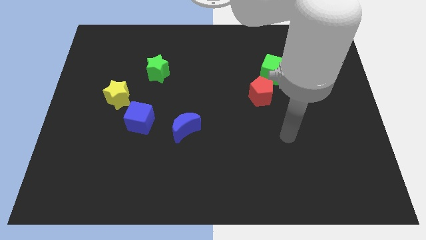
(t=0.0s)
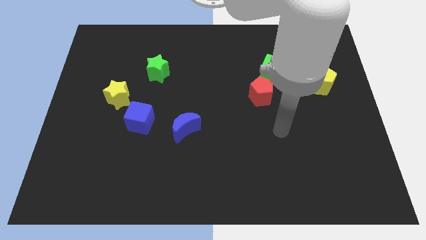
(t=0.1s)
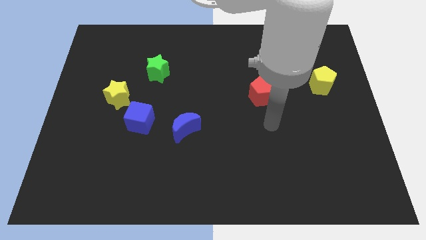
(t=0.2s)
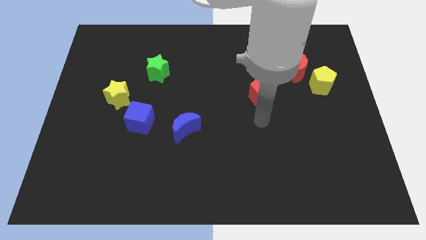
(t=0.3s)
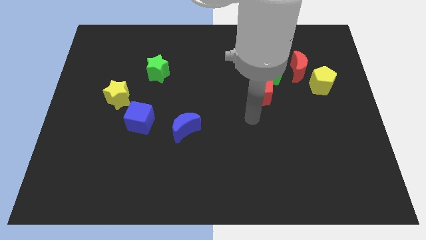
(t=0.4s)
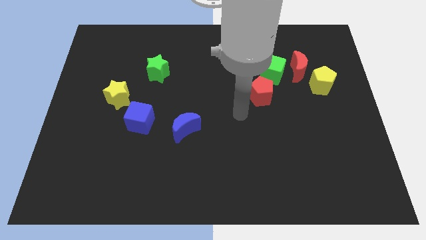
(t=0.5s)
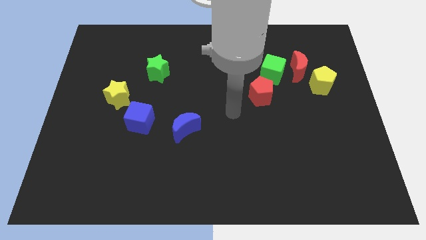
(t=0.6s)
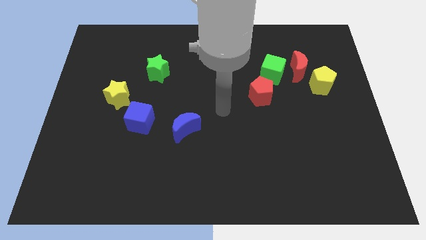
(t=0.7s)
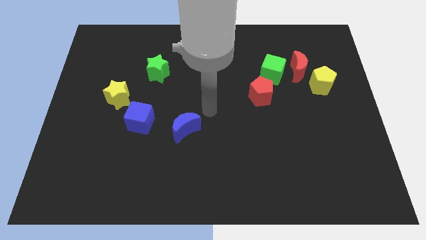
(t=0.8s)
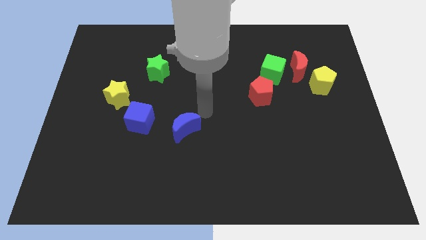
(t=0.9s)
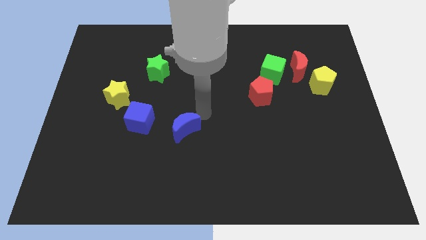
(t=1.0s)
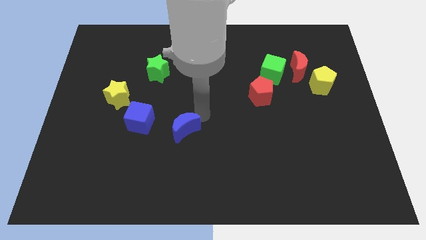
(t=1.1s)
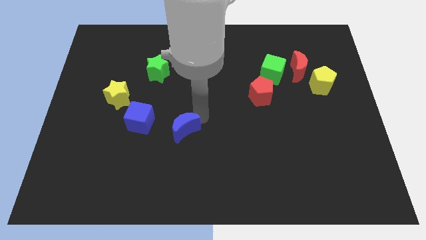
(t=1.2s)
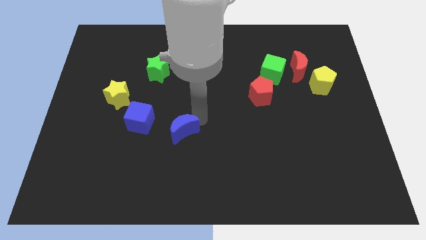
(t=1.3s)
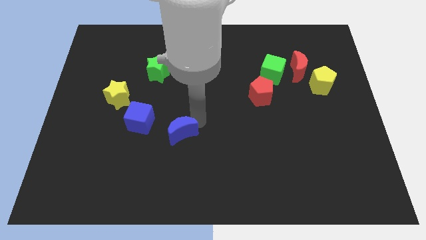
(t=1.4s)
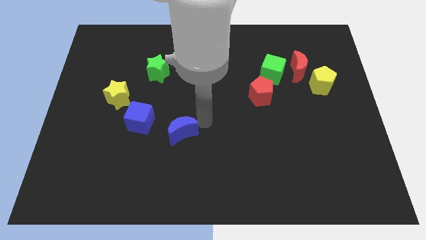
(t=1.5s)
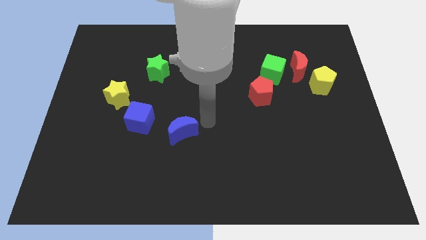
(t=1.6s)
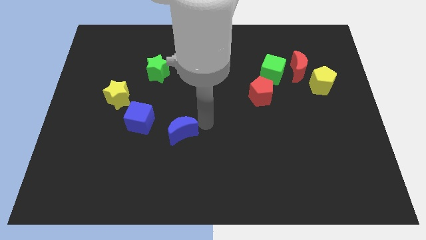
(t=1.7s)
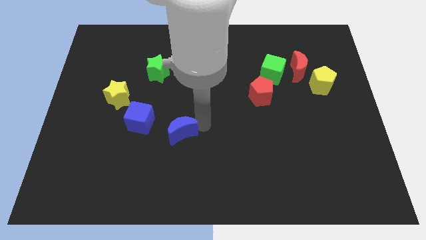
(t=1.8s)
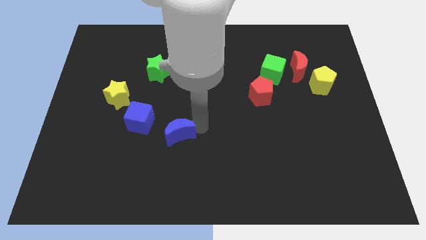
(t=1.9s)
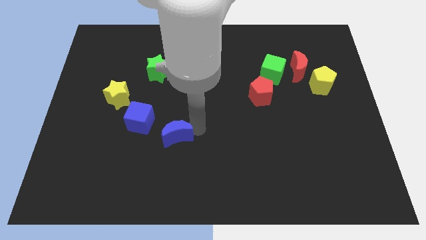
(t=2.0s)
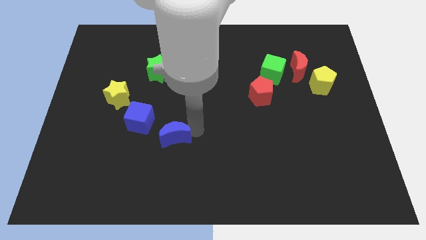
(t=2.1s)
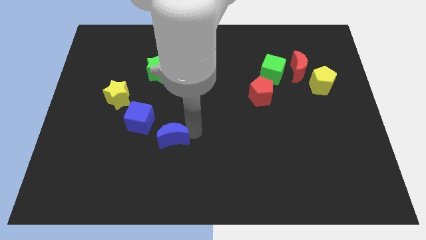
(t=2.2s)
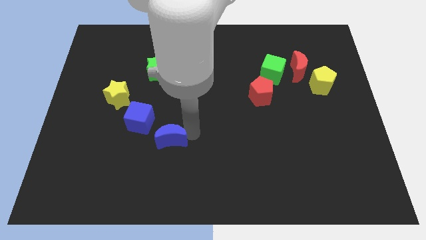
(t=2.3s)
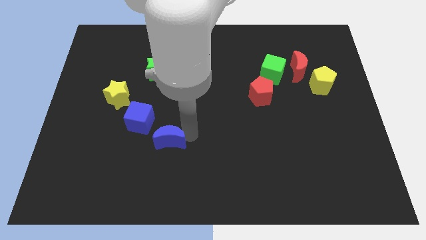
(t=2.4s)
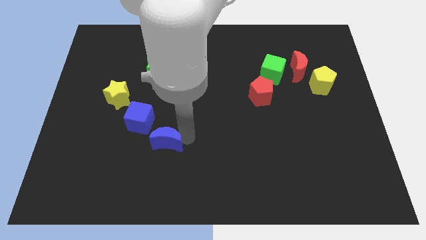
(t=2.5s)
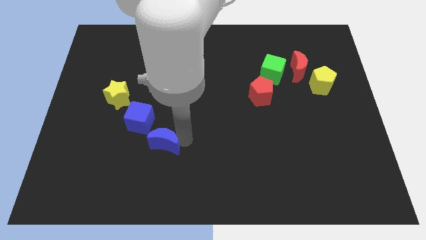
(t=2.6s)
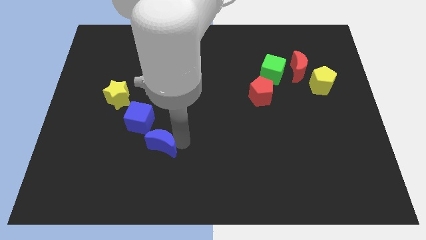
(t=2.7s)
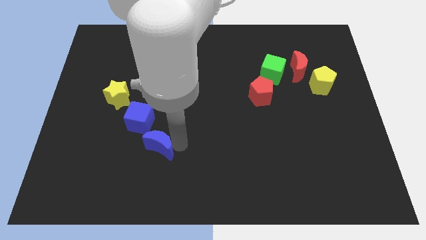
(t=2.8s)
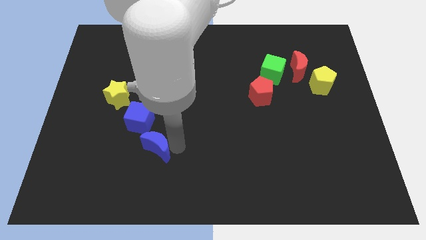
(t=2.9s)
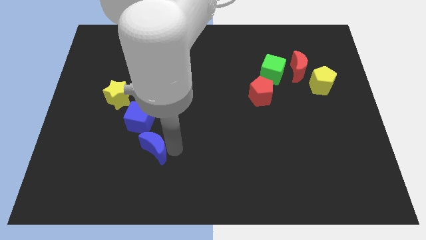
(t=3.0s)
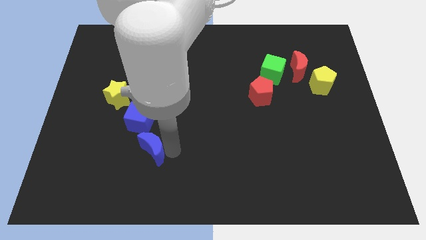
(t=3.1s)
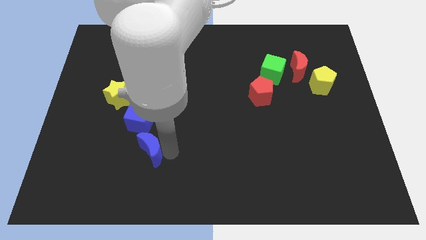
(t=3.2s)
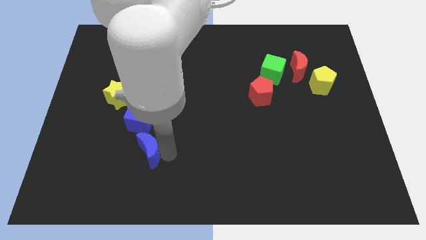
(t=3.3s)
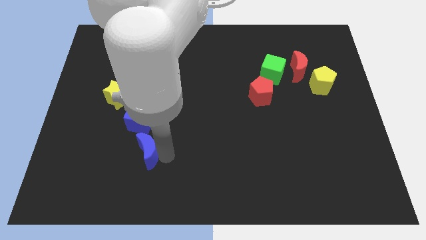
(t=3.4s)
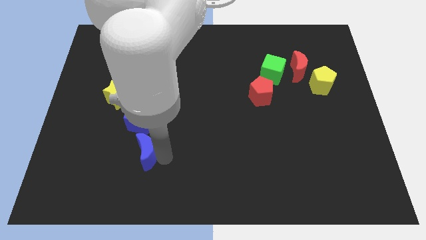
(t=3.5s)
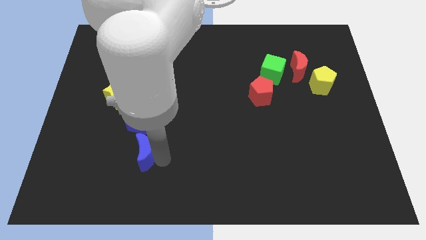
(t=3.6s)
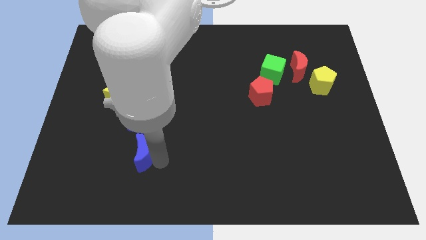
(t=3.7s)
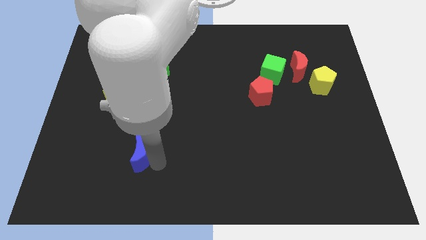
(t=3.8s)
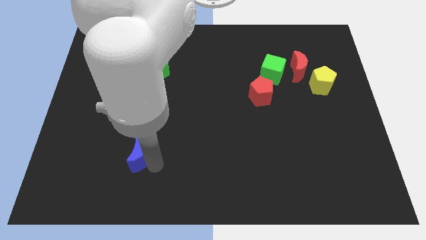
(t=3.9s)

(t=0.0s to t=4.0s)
slightly push the blue moon left

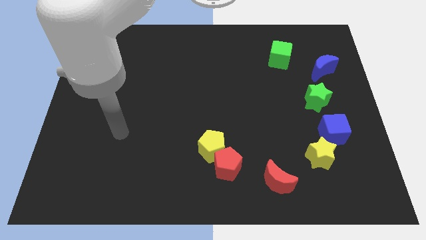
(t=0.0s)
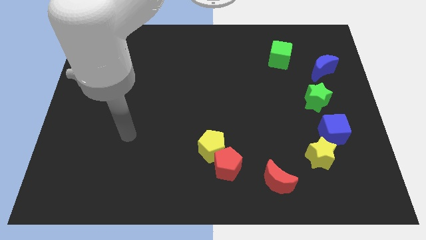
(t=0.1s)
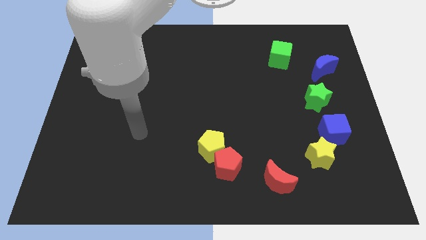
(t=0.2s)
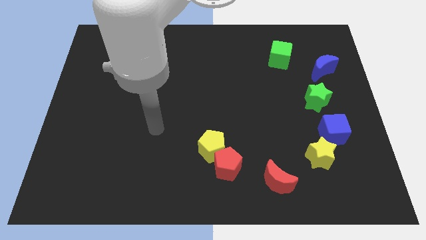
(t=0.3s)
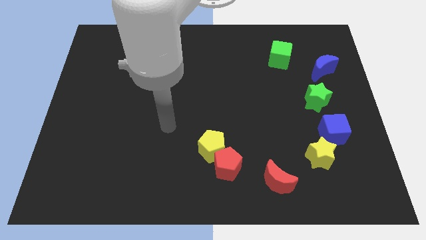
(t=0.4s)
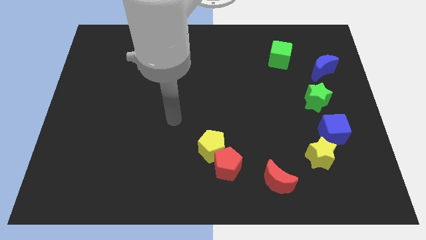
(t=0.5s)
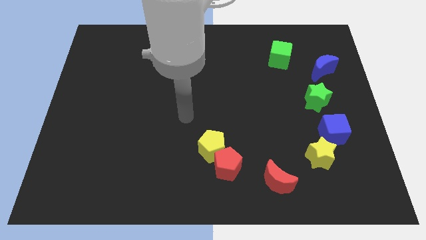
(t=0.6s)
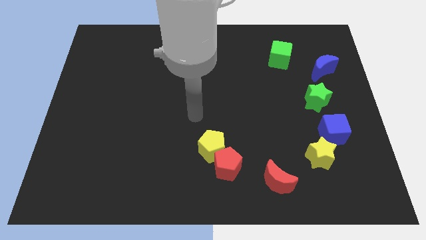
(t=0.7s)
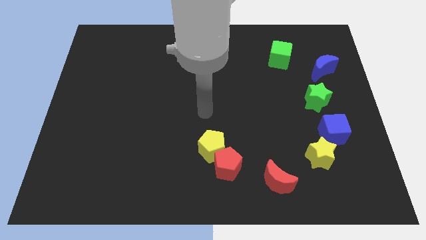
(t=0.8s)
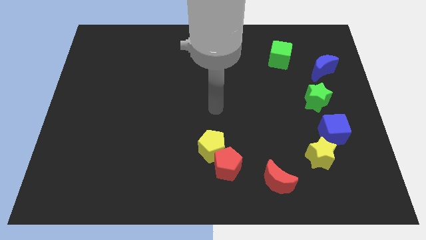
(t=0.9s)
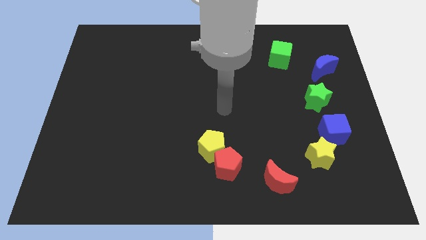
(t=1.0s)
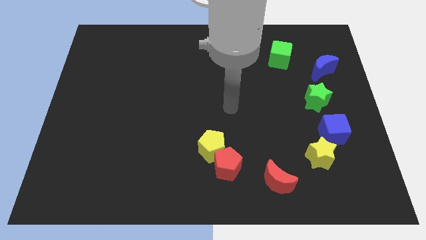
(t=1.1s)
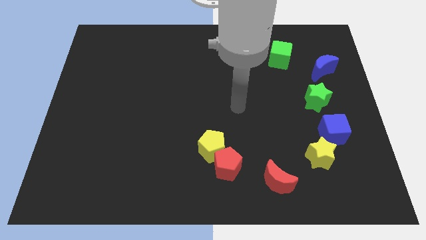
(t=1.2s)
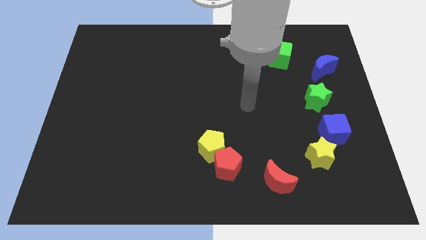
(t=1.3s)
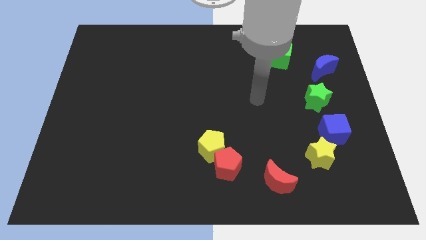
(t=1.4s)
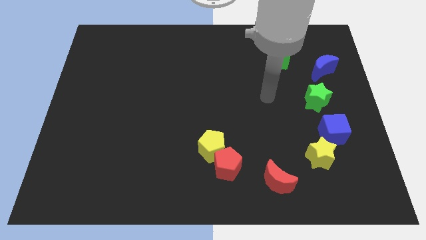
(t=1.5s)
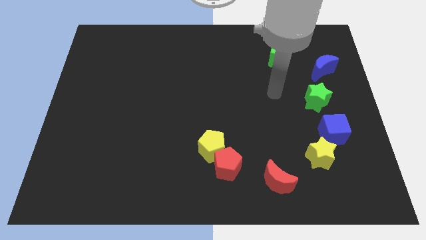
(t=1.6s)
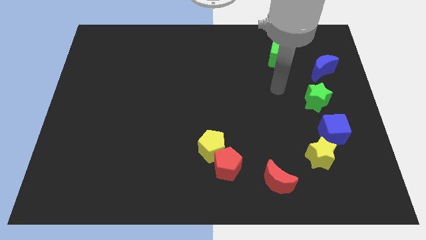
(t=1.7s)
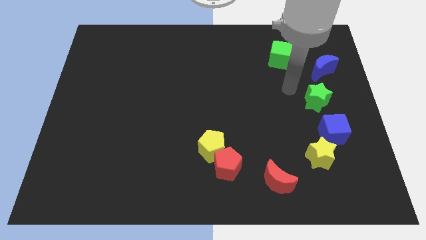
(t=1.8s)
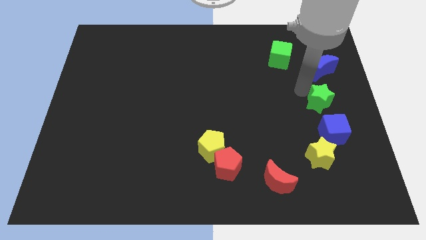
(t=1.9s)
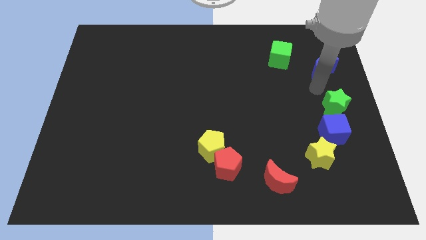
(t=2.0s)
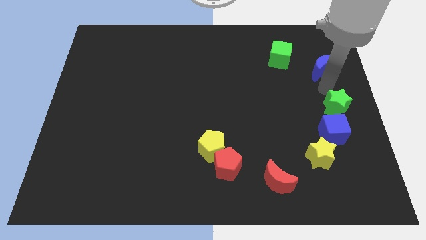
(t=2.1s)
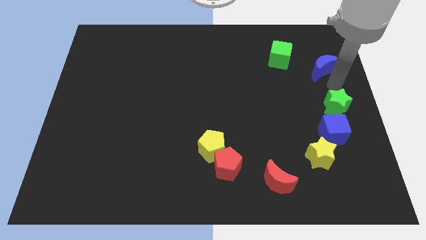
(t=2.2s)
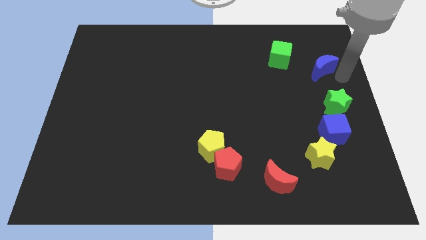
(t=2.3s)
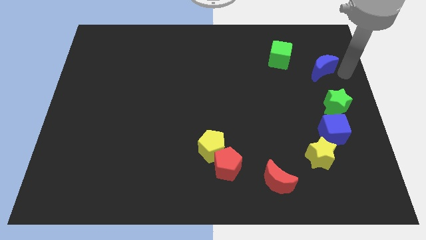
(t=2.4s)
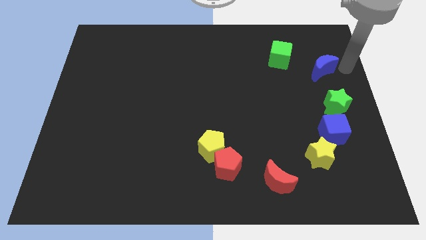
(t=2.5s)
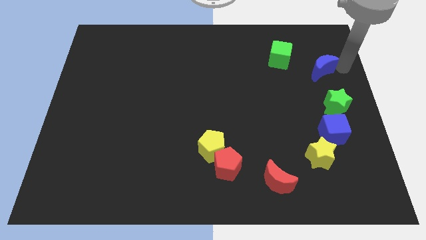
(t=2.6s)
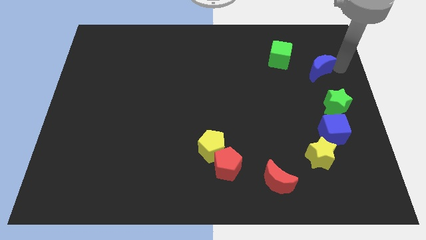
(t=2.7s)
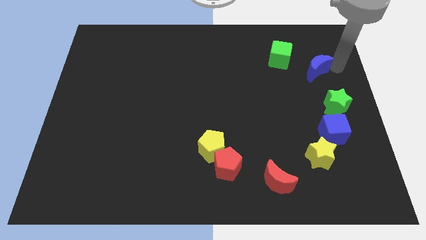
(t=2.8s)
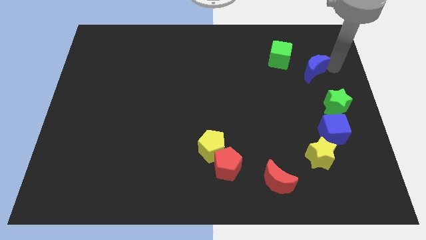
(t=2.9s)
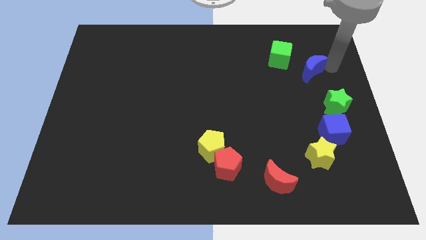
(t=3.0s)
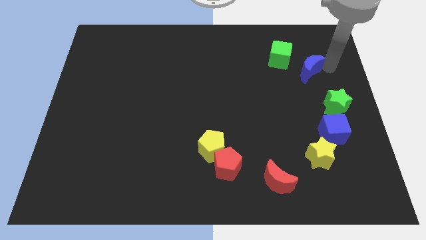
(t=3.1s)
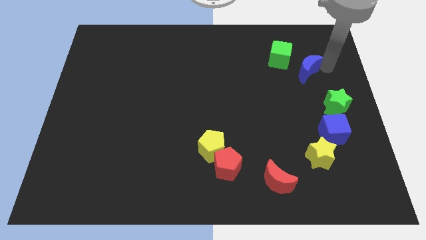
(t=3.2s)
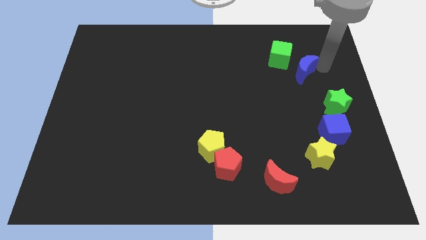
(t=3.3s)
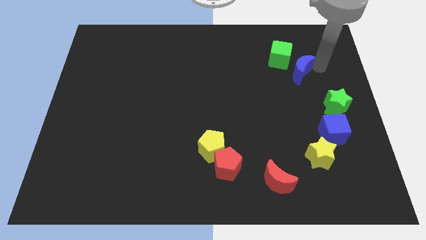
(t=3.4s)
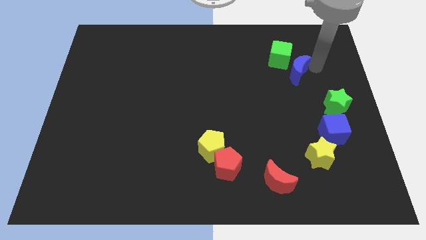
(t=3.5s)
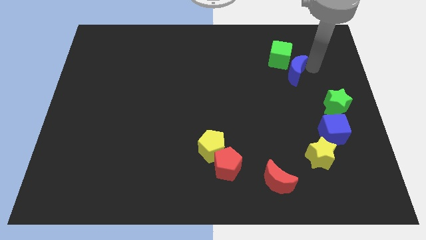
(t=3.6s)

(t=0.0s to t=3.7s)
slide the blue moon left a bit
